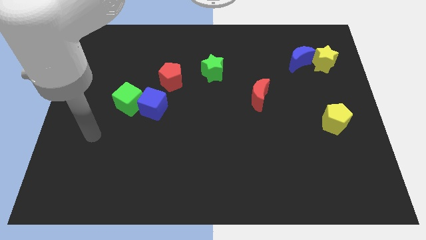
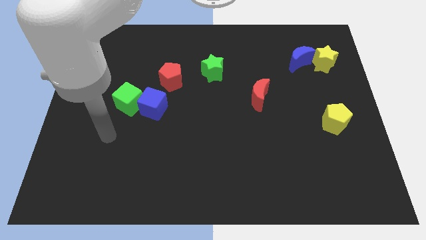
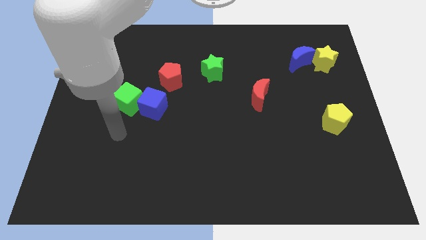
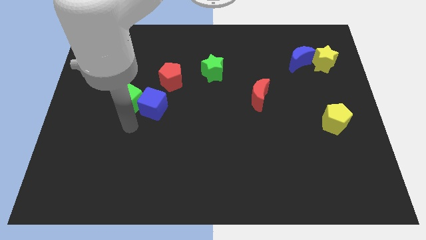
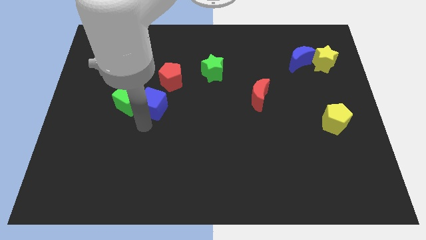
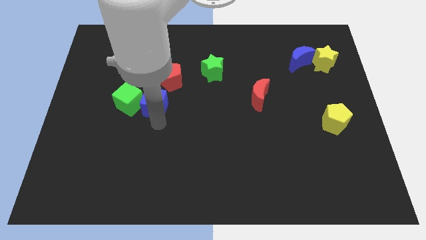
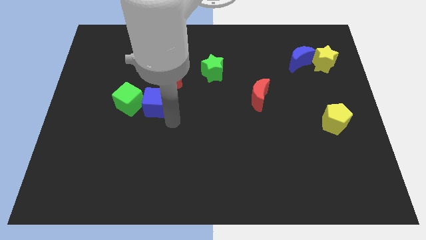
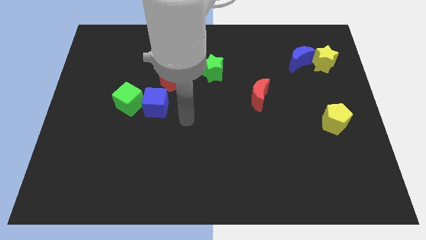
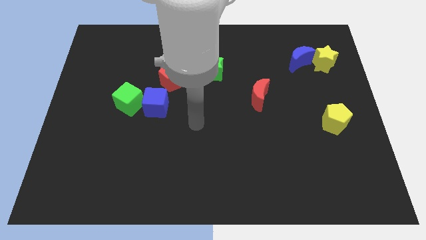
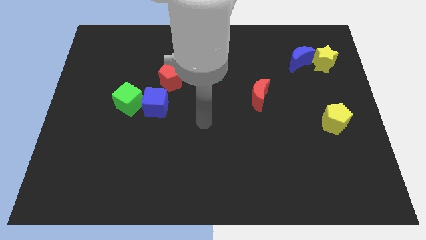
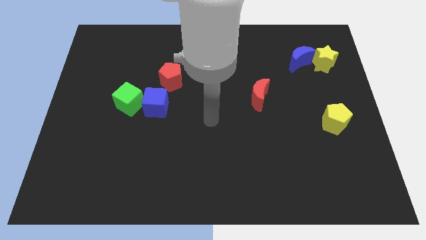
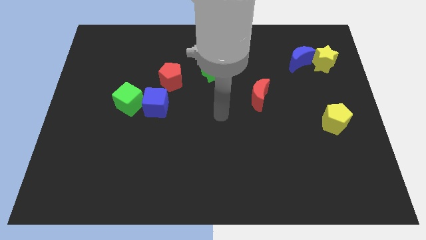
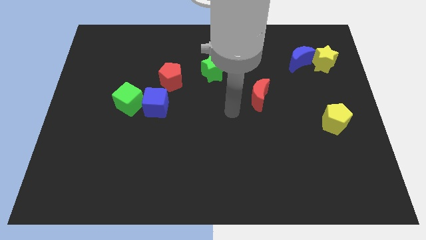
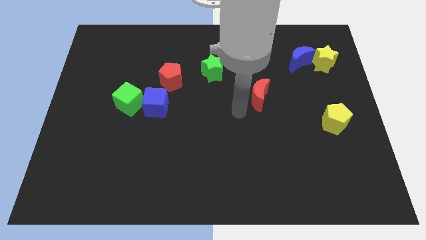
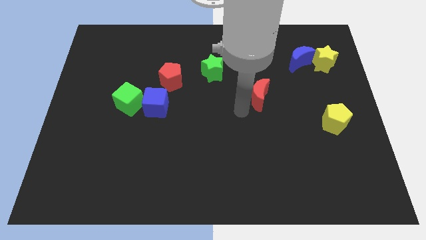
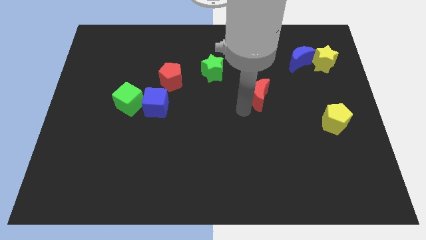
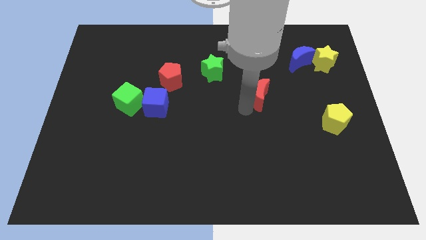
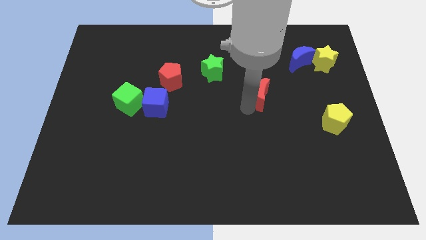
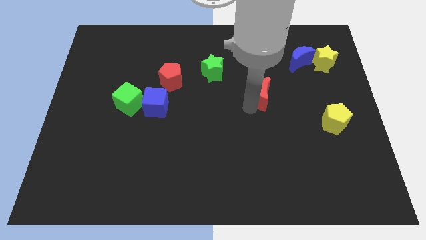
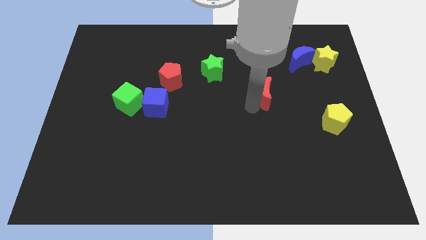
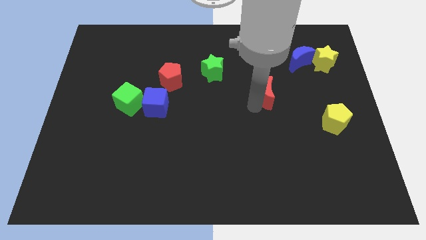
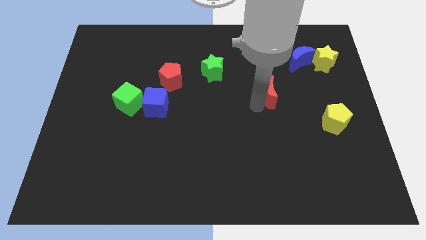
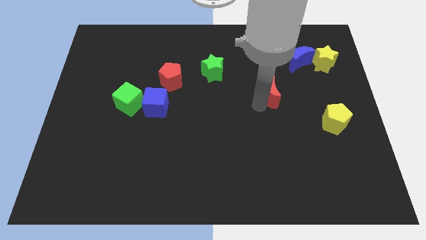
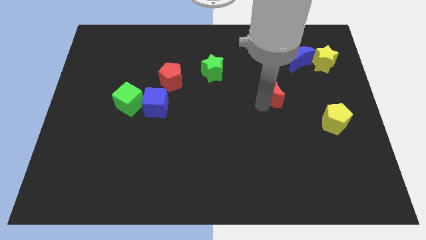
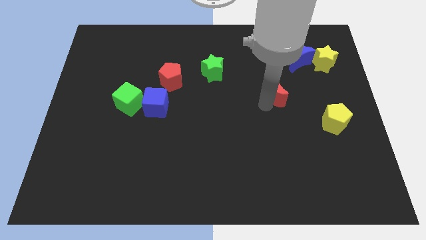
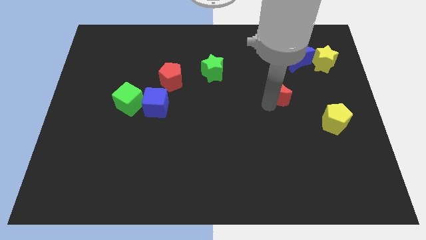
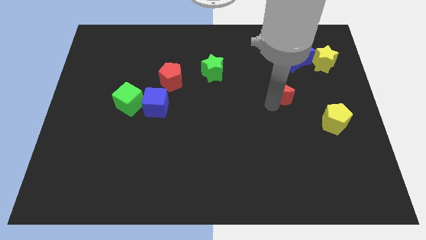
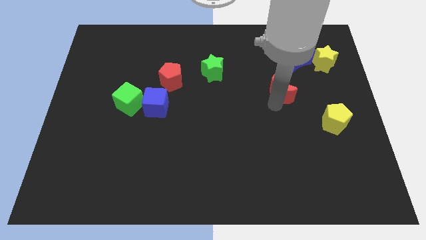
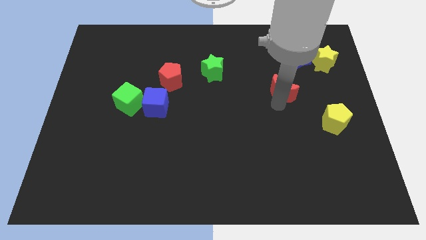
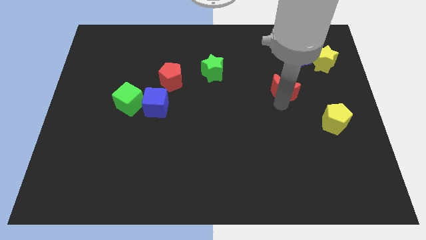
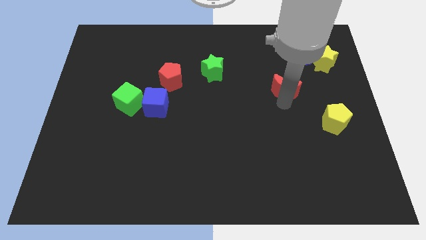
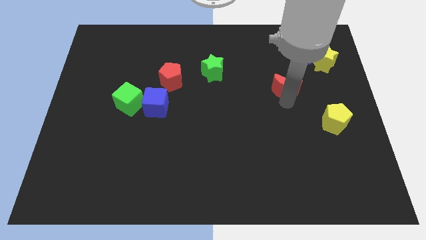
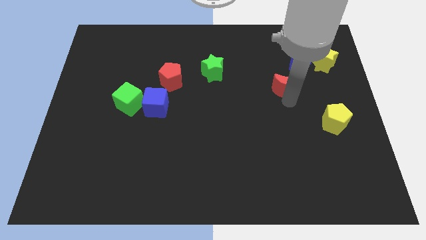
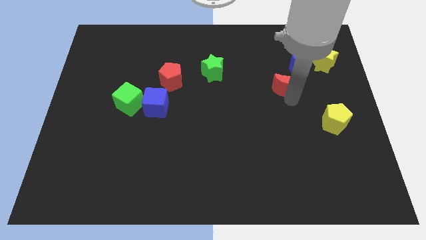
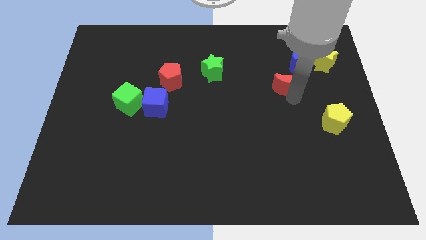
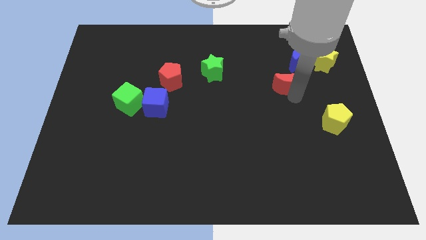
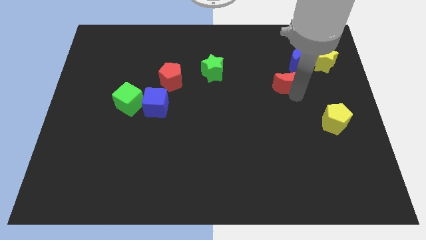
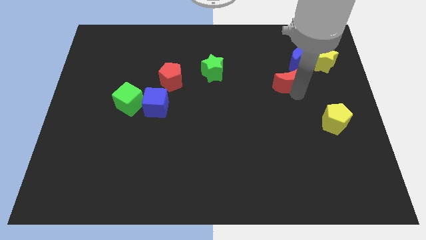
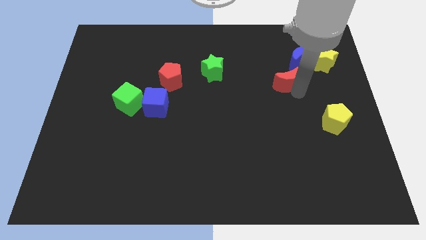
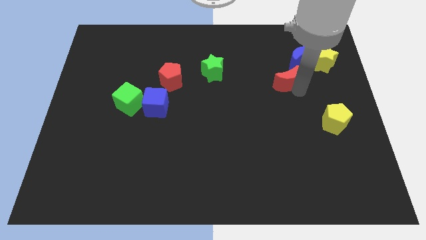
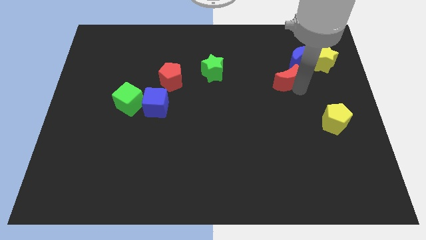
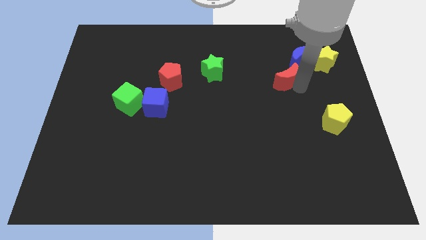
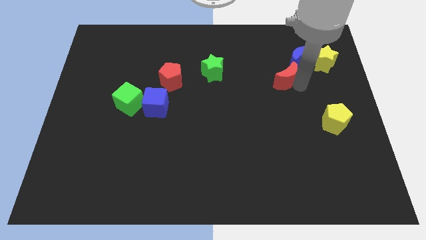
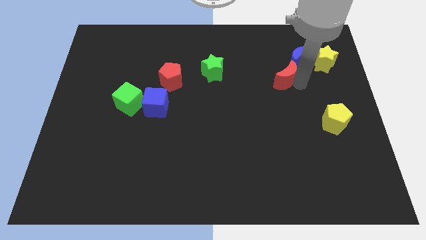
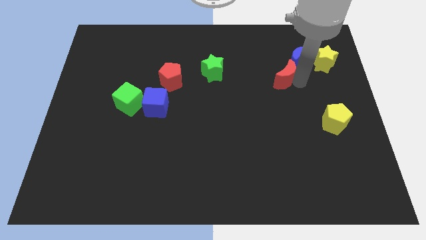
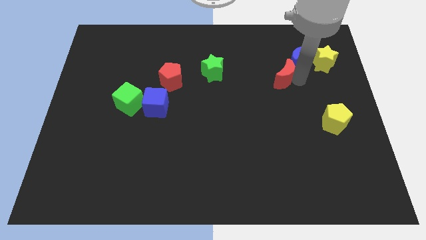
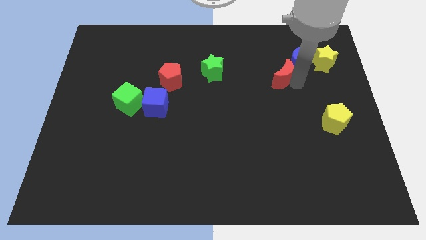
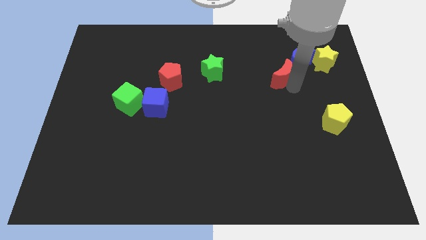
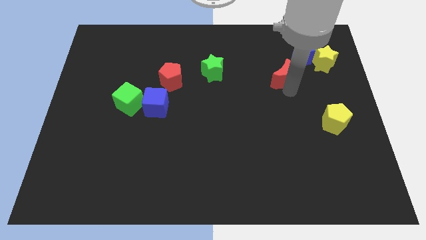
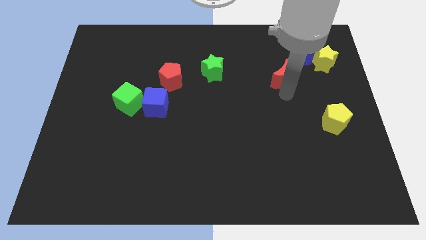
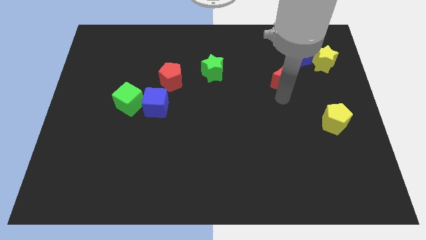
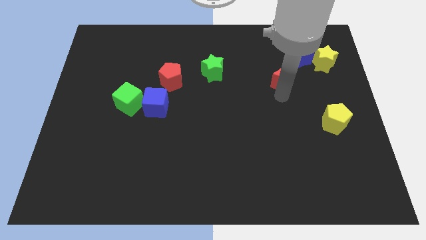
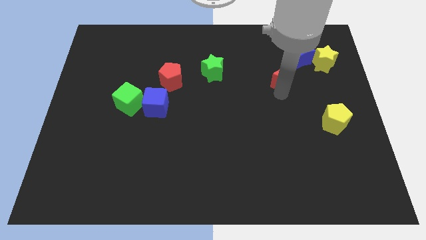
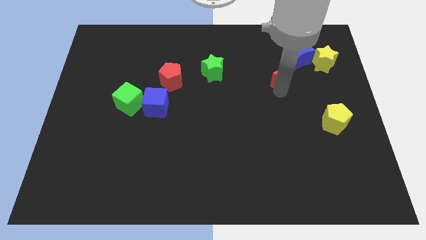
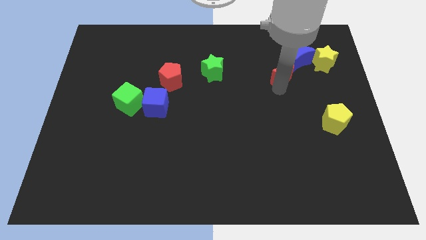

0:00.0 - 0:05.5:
put the red moon to the left side of the yellow star

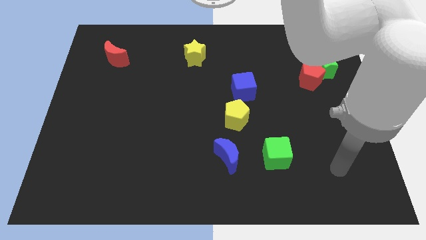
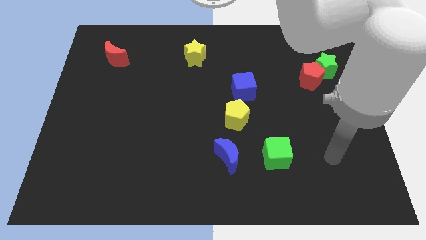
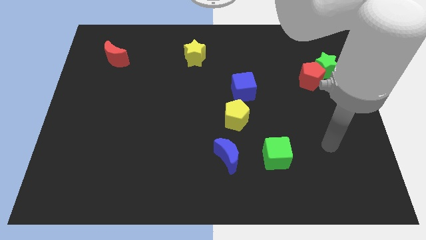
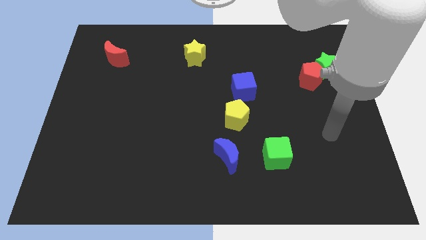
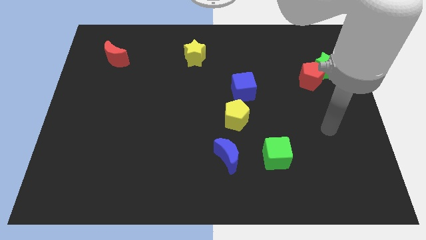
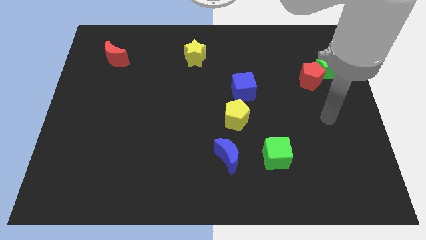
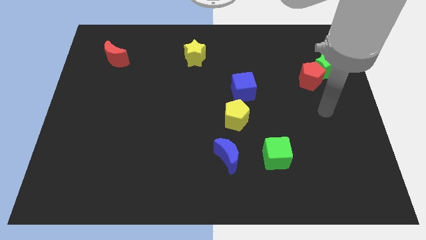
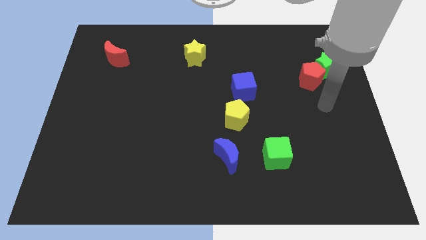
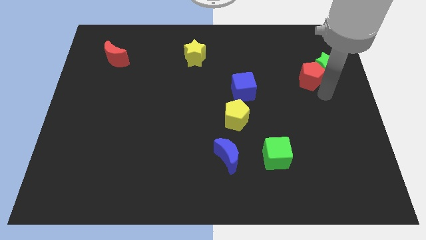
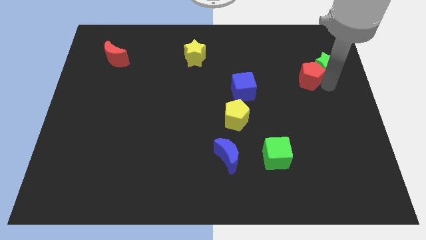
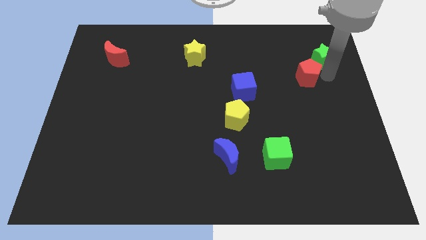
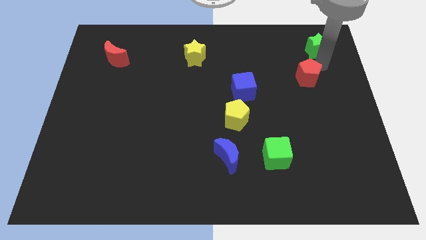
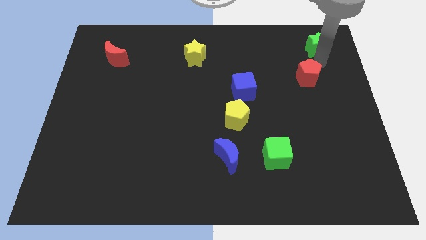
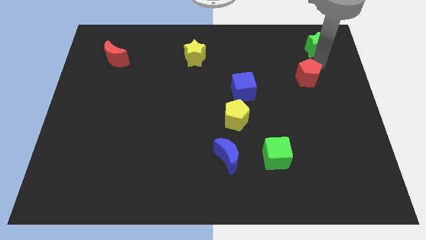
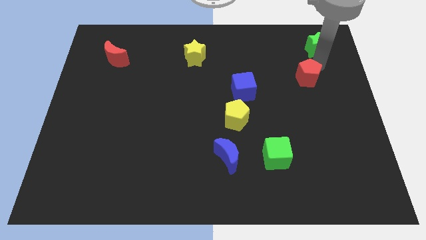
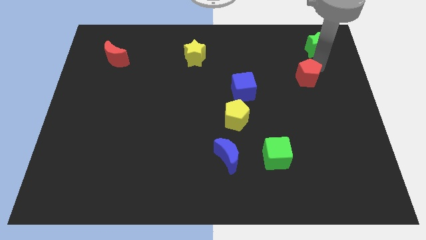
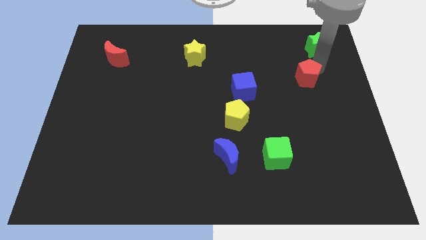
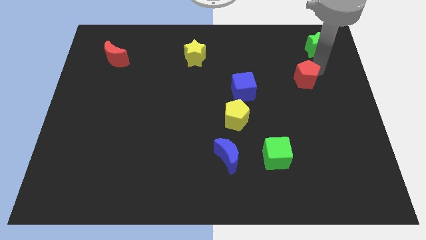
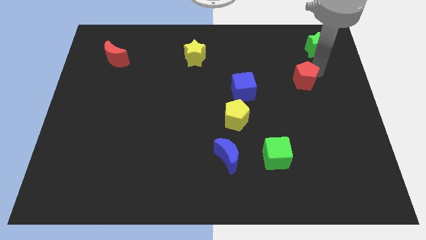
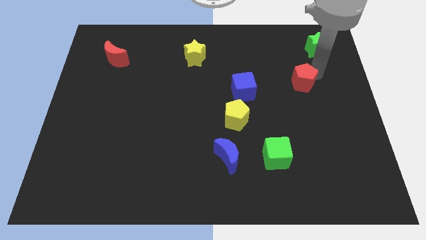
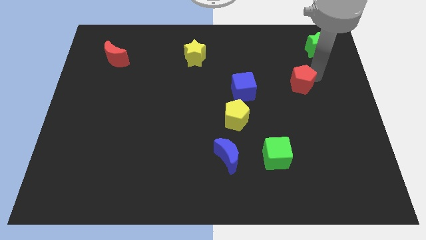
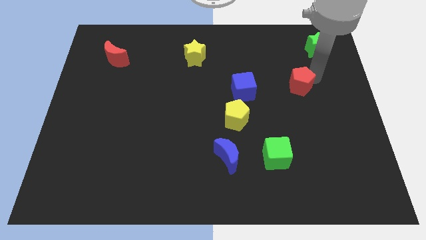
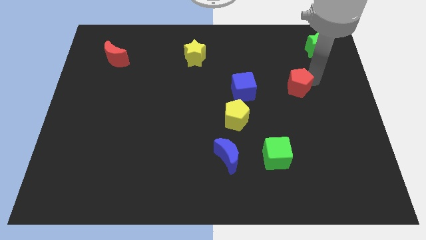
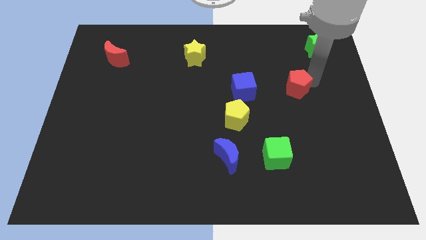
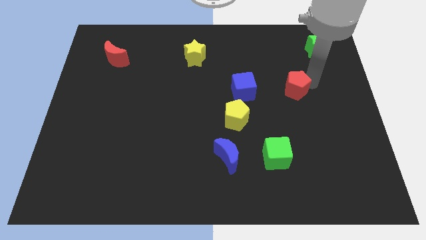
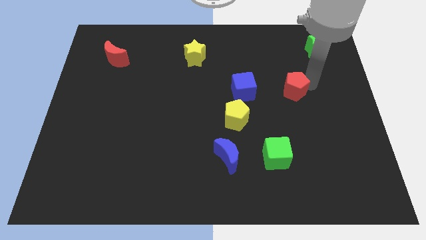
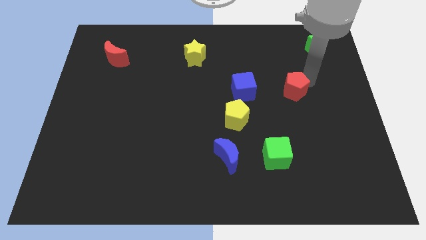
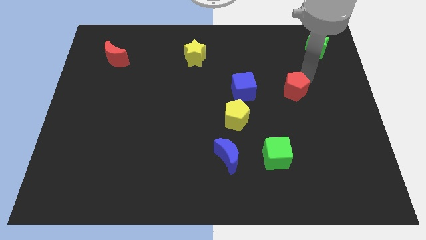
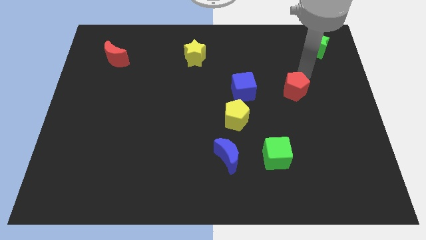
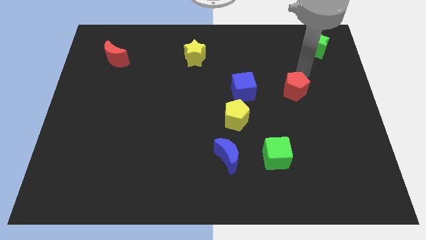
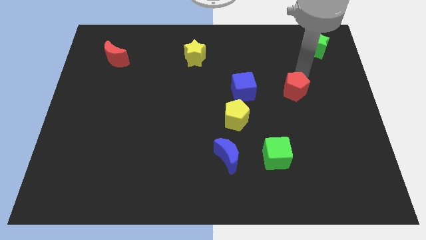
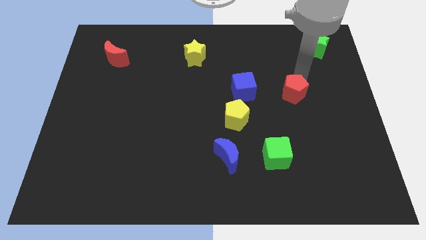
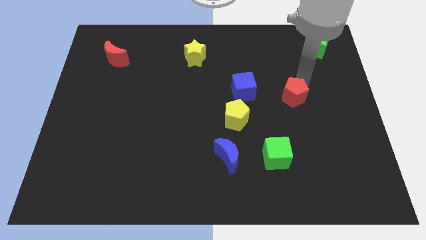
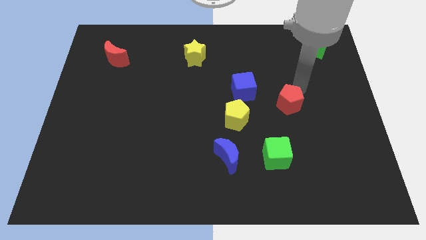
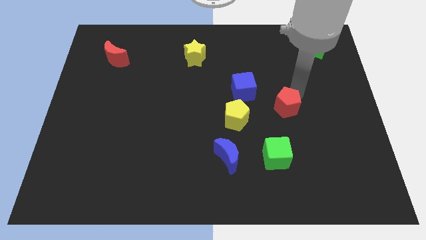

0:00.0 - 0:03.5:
move the red pentagon to the top of the green cube
